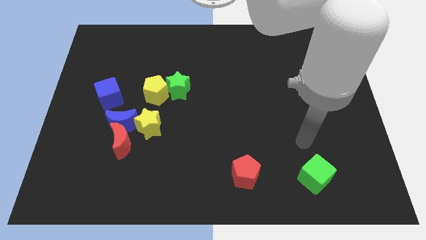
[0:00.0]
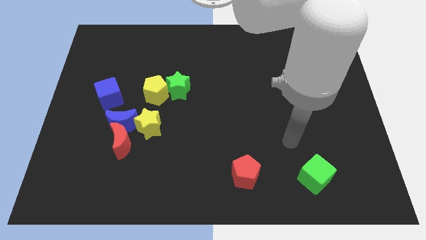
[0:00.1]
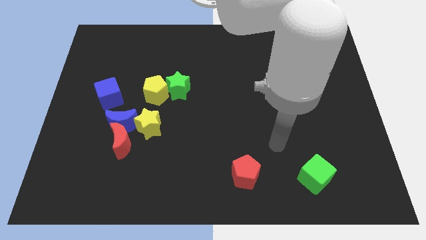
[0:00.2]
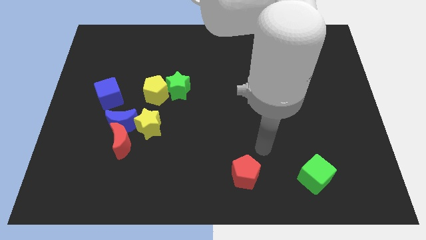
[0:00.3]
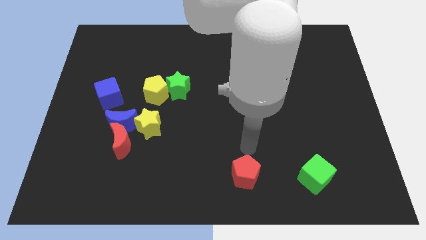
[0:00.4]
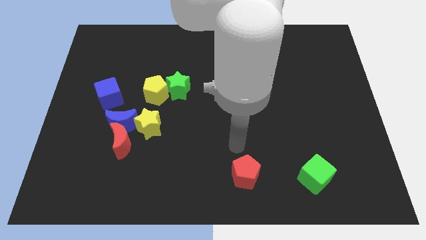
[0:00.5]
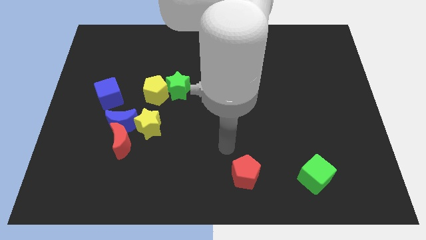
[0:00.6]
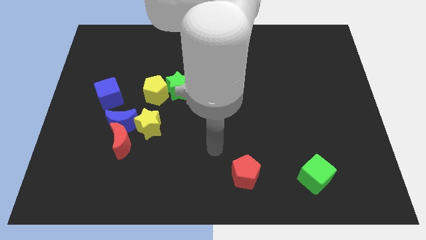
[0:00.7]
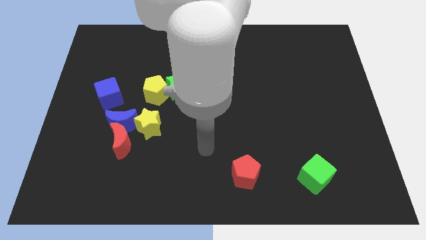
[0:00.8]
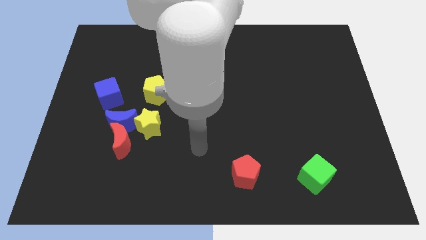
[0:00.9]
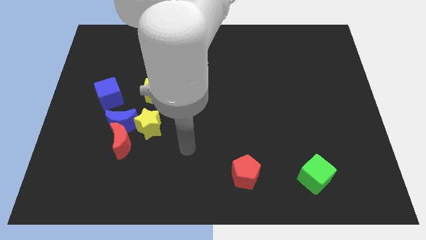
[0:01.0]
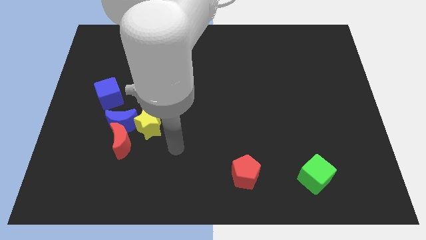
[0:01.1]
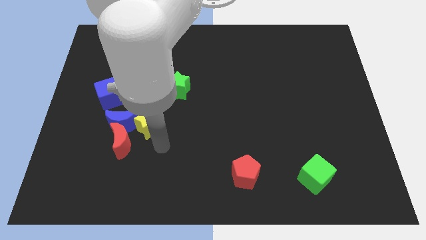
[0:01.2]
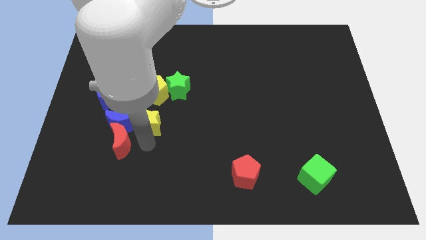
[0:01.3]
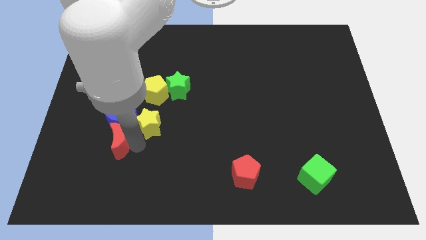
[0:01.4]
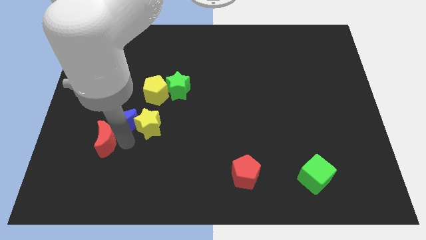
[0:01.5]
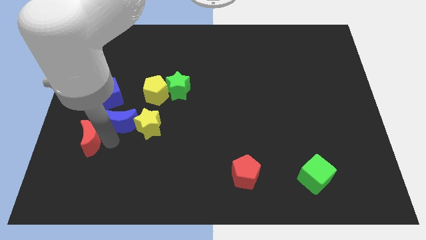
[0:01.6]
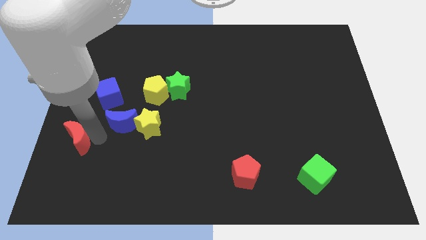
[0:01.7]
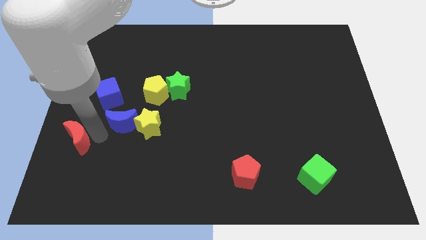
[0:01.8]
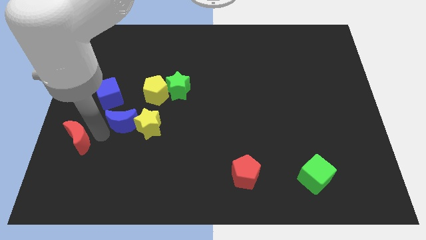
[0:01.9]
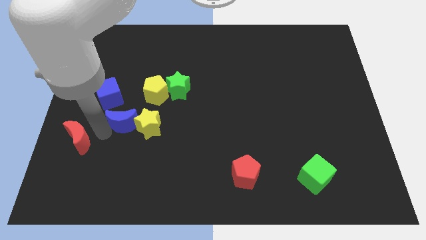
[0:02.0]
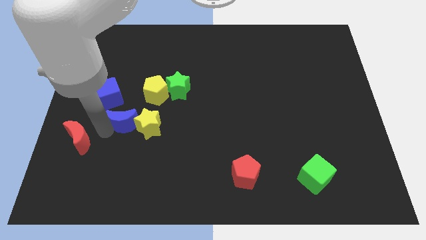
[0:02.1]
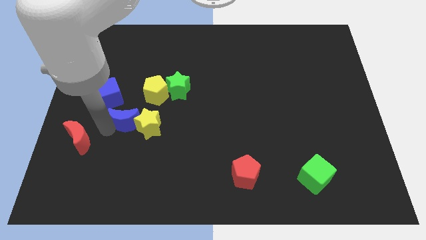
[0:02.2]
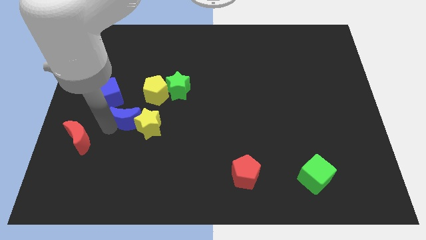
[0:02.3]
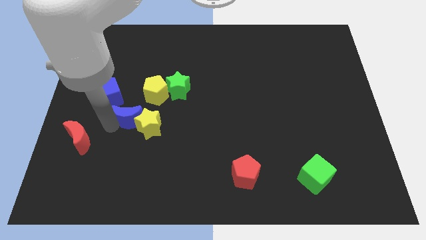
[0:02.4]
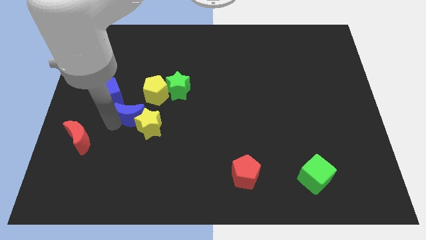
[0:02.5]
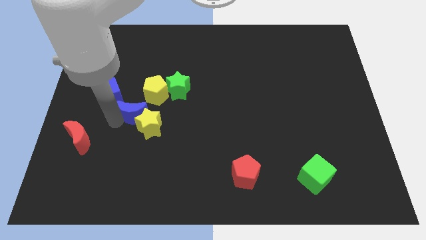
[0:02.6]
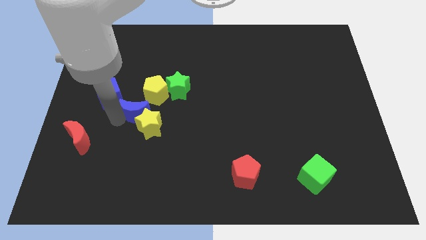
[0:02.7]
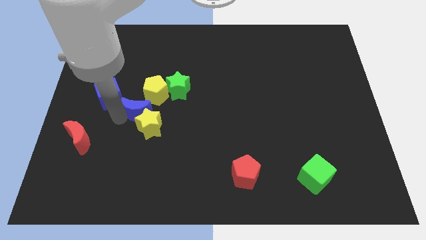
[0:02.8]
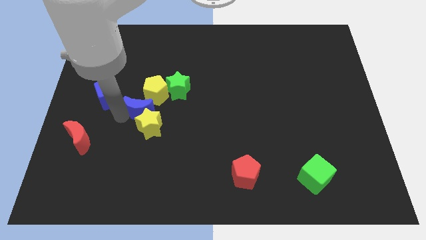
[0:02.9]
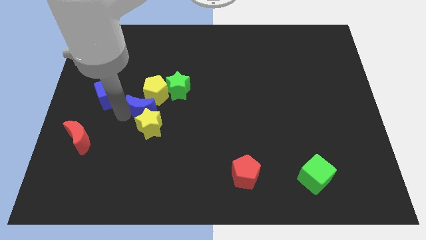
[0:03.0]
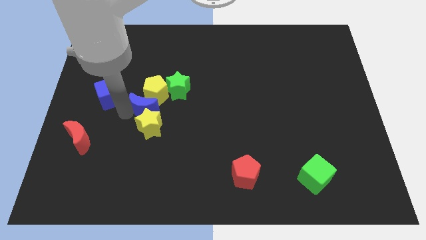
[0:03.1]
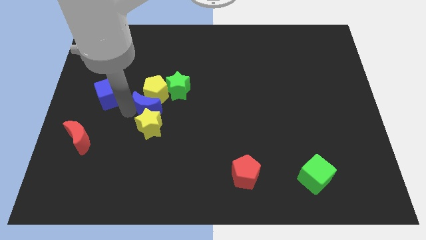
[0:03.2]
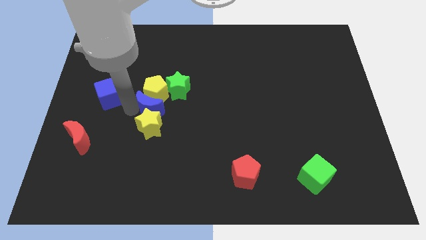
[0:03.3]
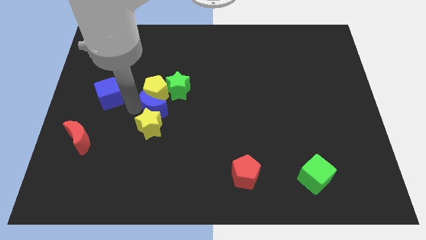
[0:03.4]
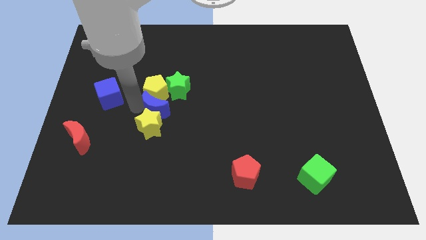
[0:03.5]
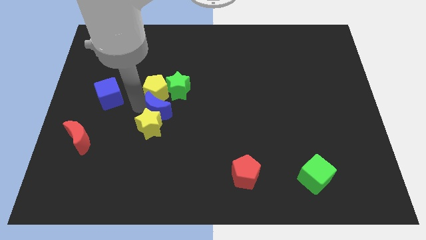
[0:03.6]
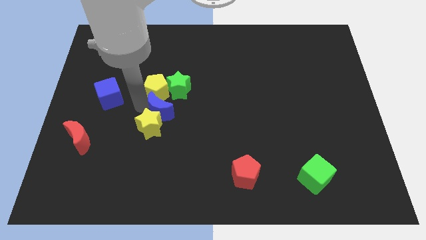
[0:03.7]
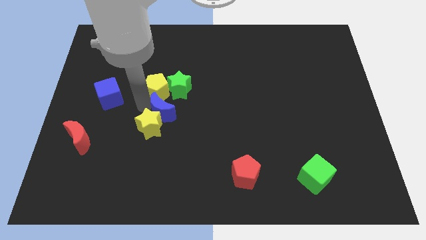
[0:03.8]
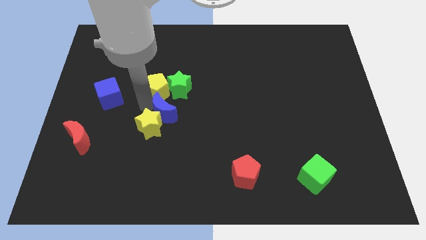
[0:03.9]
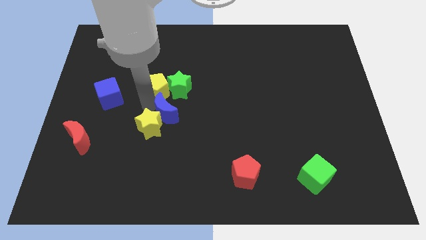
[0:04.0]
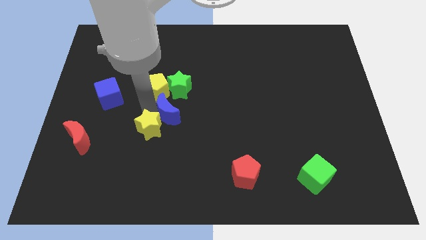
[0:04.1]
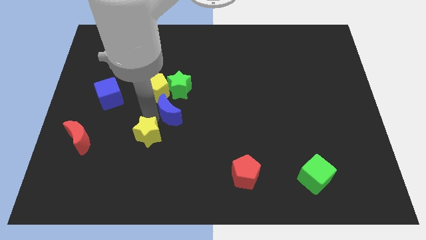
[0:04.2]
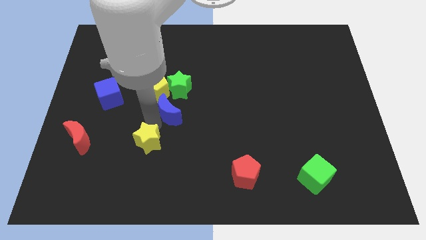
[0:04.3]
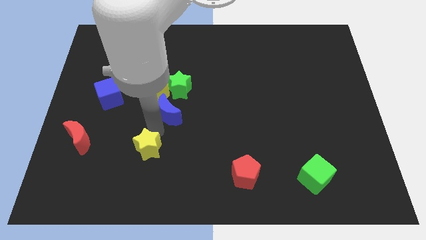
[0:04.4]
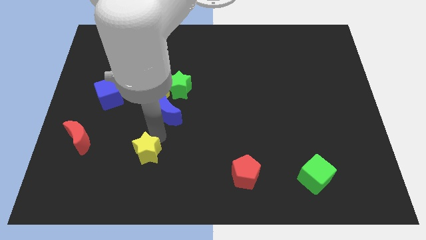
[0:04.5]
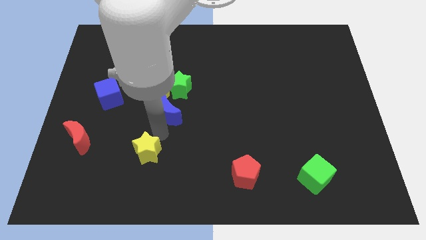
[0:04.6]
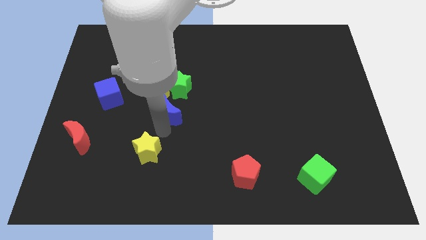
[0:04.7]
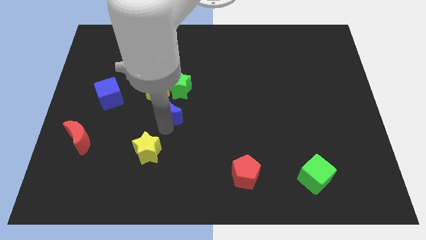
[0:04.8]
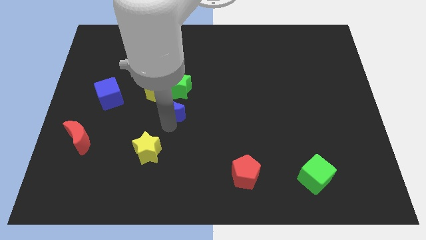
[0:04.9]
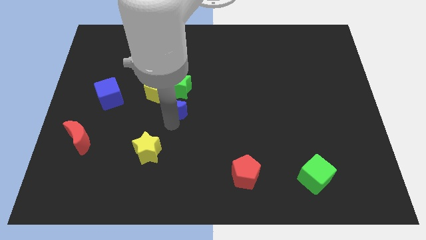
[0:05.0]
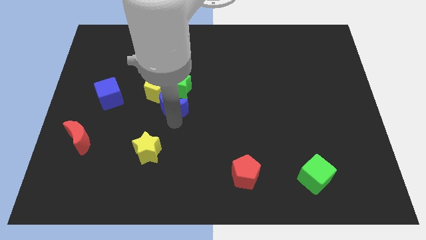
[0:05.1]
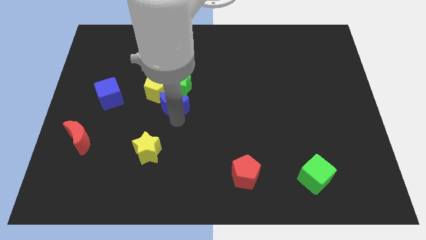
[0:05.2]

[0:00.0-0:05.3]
move the blue moon to the green star

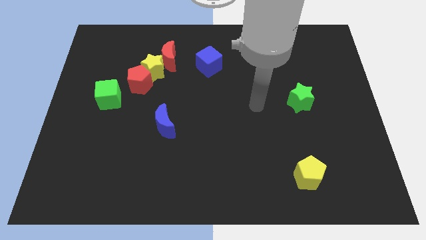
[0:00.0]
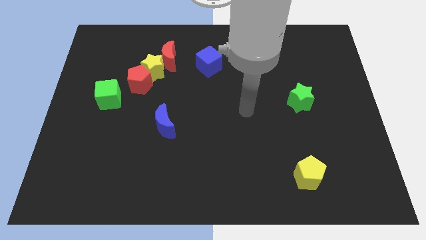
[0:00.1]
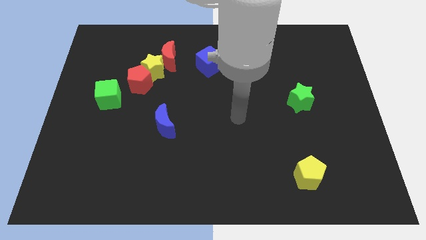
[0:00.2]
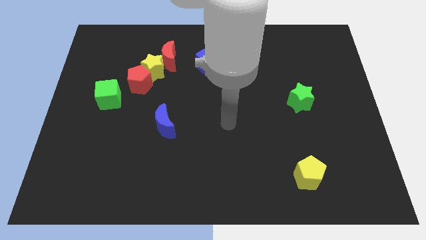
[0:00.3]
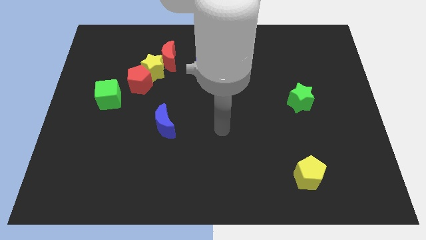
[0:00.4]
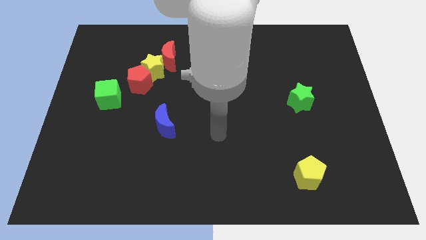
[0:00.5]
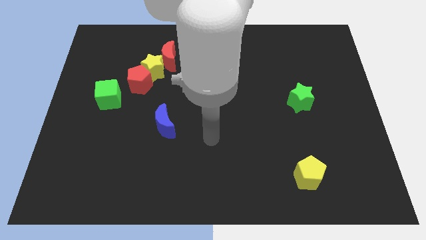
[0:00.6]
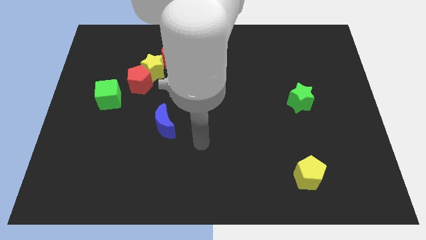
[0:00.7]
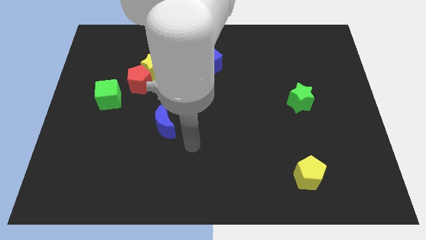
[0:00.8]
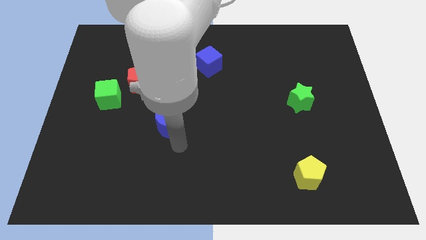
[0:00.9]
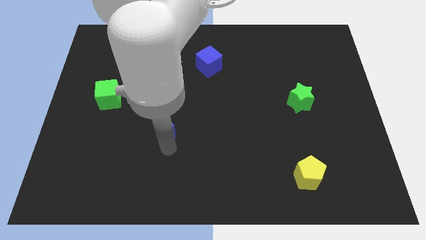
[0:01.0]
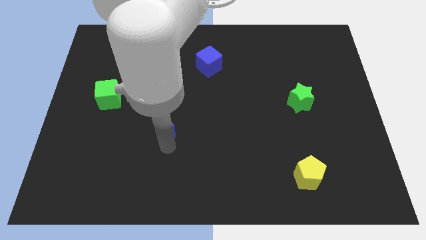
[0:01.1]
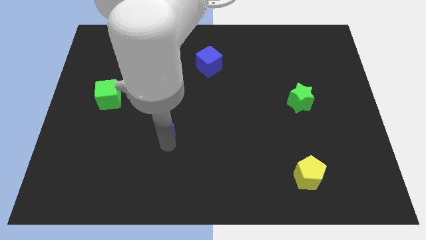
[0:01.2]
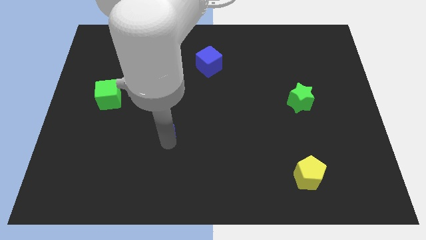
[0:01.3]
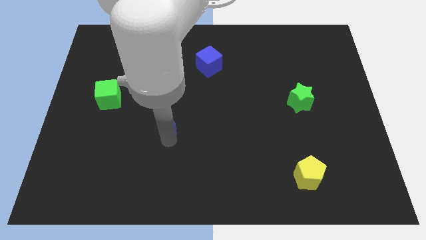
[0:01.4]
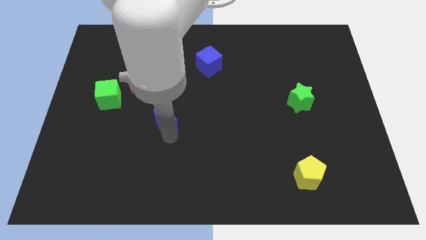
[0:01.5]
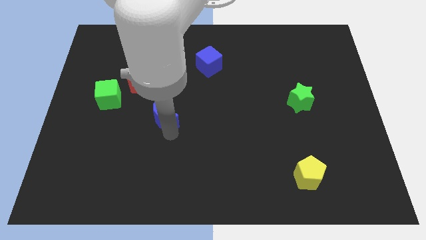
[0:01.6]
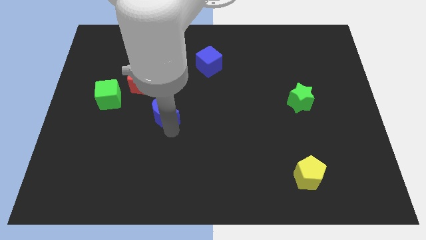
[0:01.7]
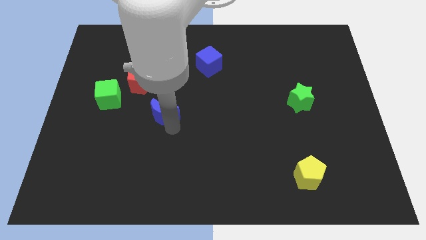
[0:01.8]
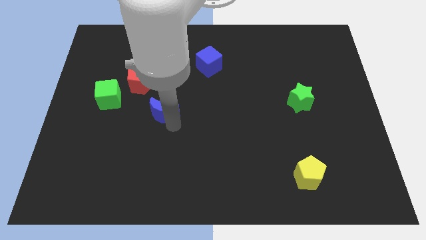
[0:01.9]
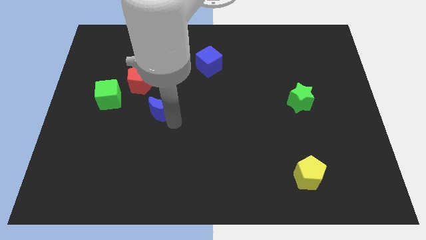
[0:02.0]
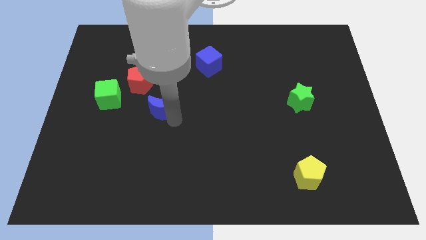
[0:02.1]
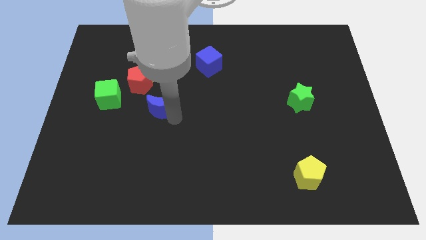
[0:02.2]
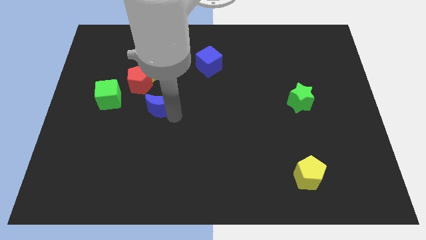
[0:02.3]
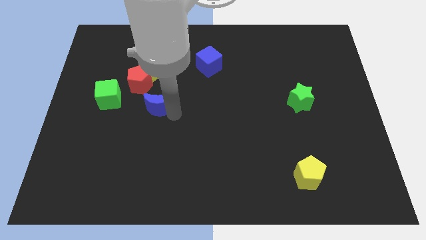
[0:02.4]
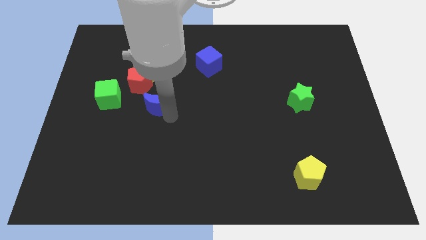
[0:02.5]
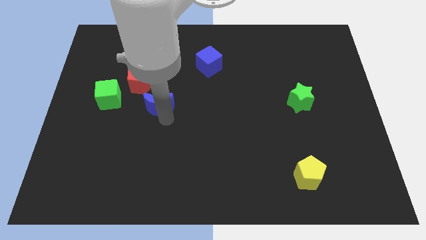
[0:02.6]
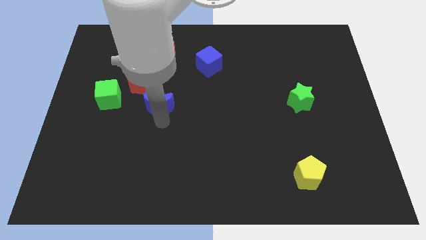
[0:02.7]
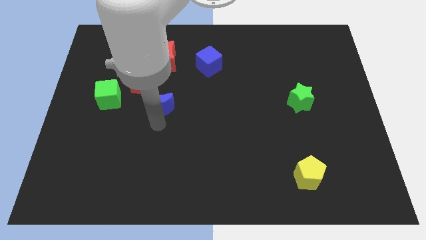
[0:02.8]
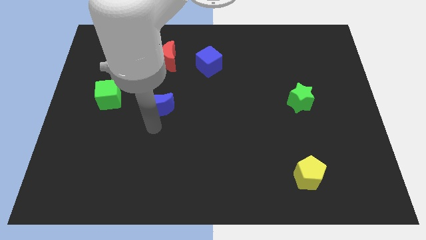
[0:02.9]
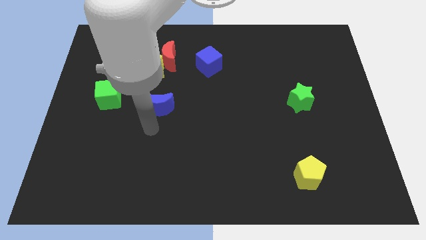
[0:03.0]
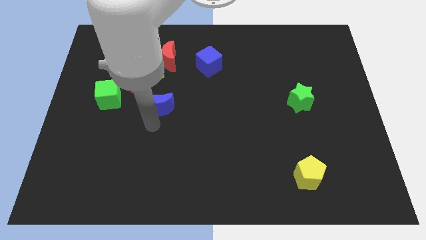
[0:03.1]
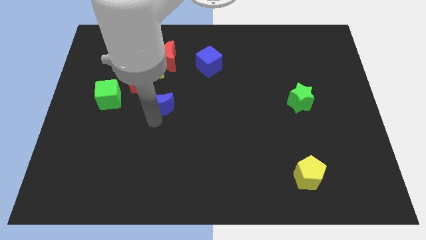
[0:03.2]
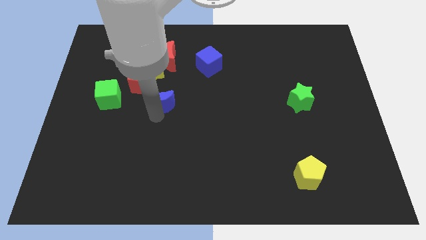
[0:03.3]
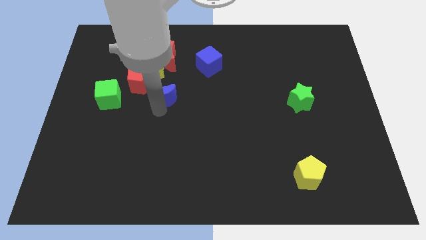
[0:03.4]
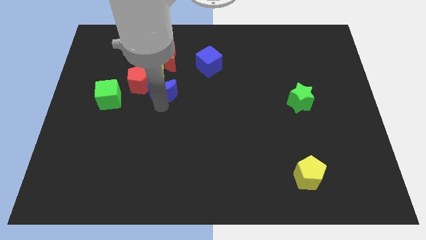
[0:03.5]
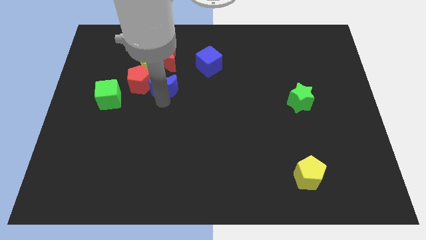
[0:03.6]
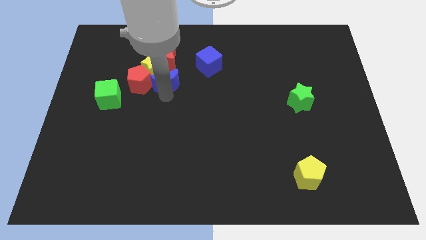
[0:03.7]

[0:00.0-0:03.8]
put the blue moon next to the yellow star
